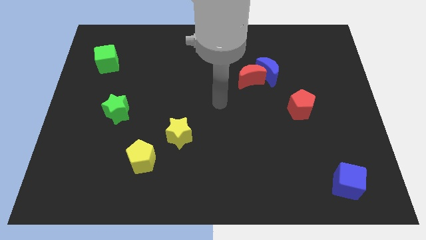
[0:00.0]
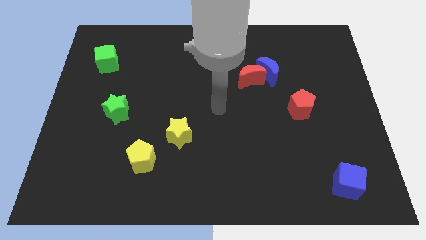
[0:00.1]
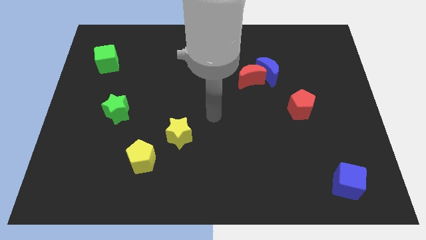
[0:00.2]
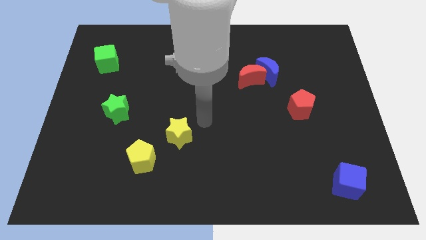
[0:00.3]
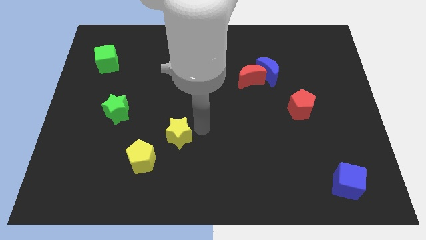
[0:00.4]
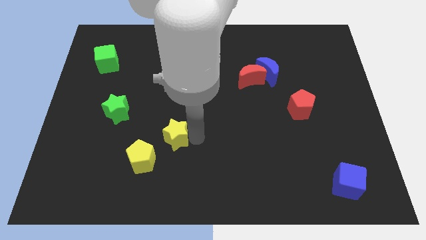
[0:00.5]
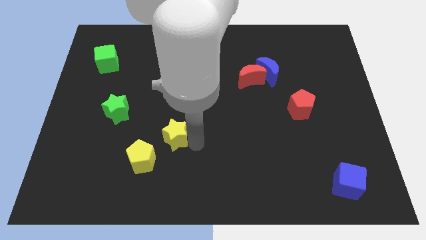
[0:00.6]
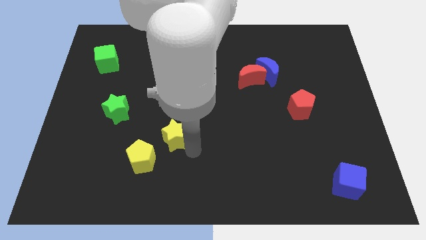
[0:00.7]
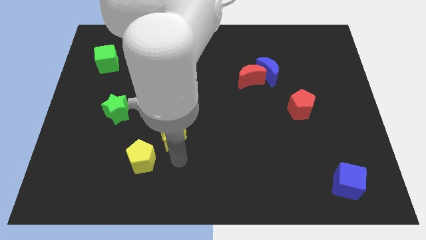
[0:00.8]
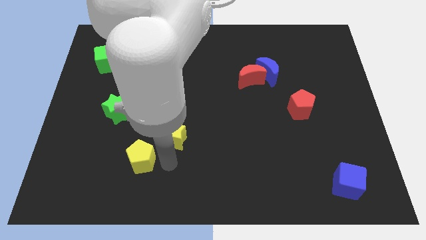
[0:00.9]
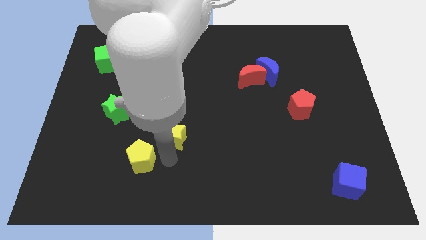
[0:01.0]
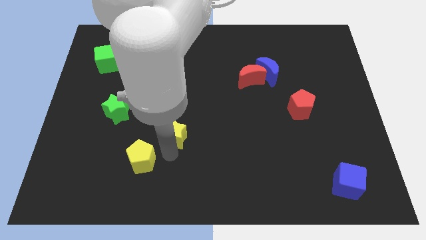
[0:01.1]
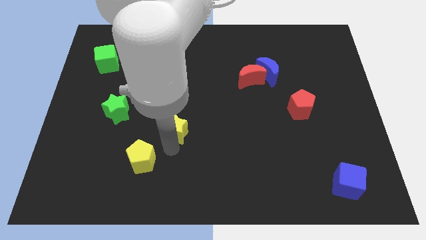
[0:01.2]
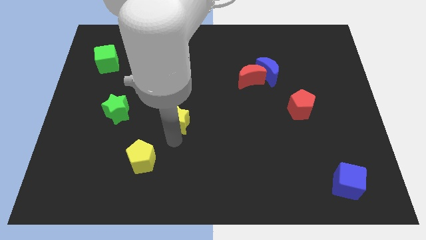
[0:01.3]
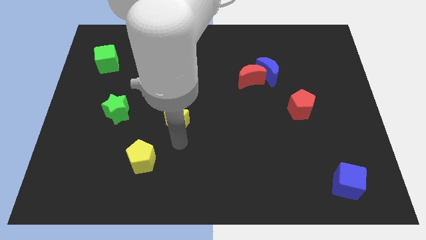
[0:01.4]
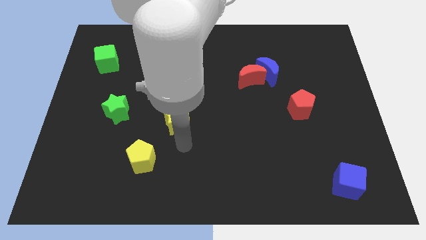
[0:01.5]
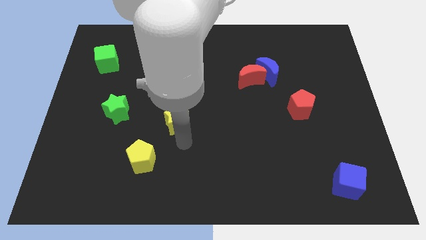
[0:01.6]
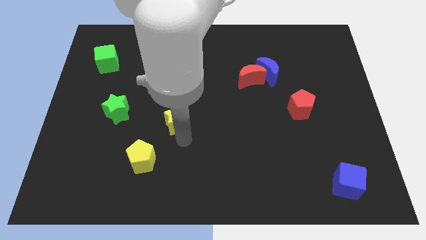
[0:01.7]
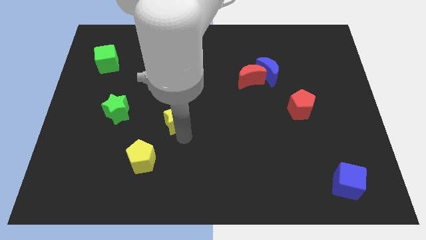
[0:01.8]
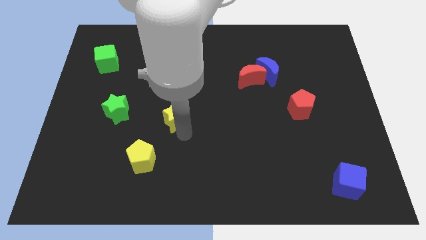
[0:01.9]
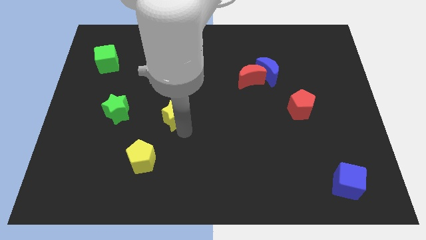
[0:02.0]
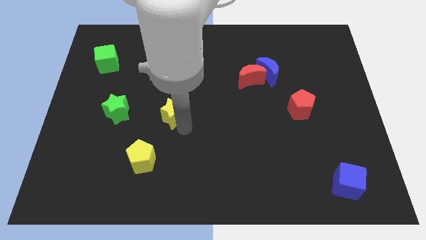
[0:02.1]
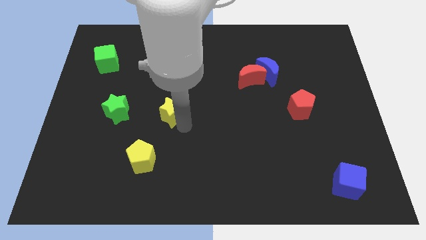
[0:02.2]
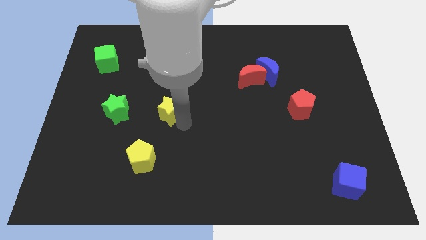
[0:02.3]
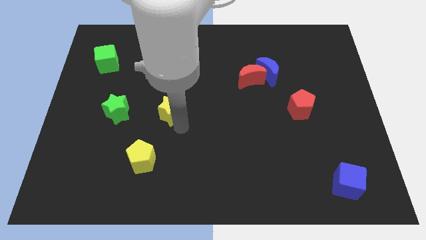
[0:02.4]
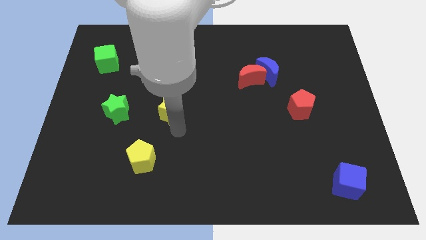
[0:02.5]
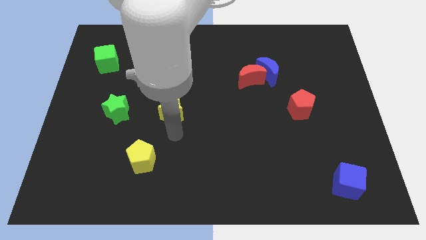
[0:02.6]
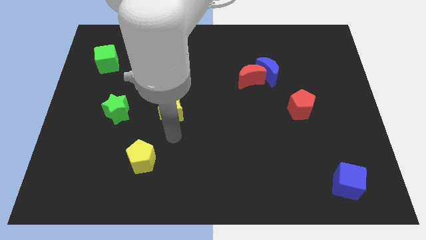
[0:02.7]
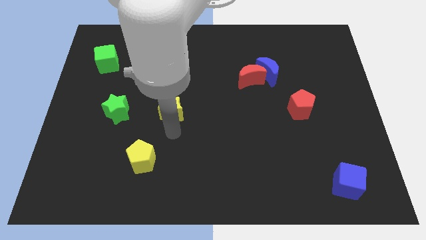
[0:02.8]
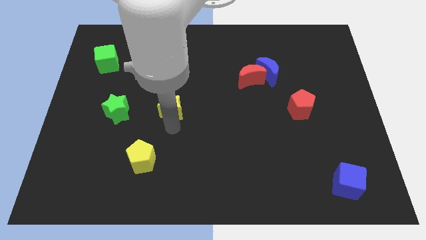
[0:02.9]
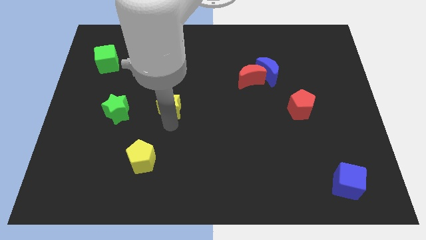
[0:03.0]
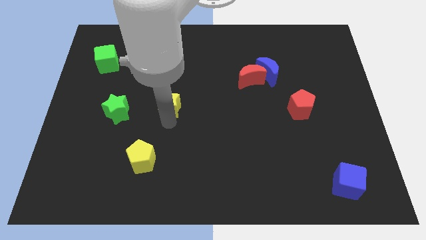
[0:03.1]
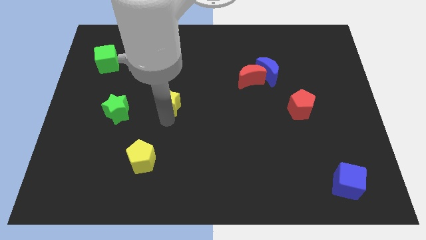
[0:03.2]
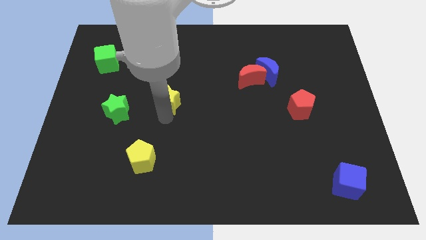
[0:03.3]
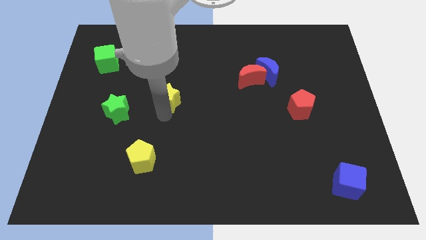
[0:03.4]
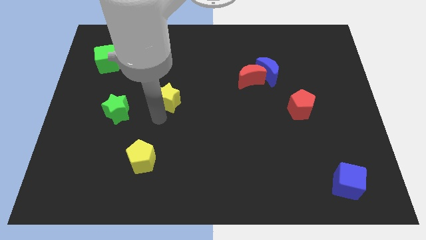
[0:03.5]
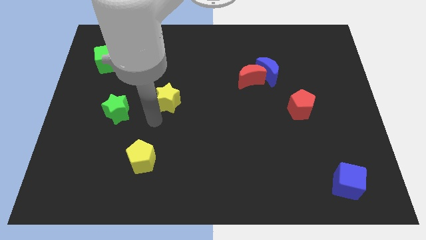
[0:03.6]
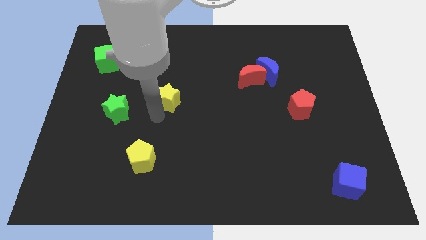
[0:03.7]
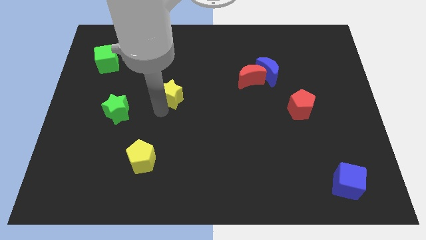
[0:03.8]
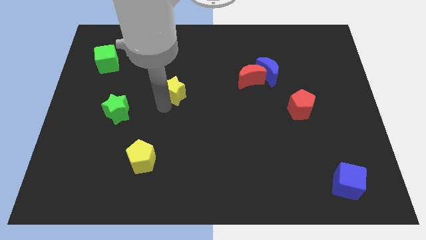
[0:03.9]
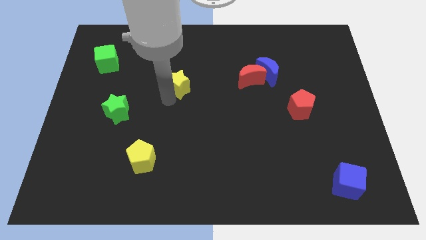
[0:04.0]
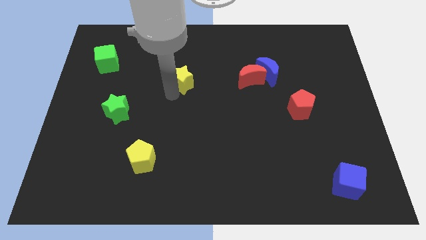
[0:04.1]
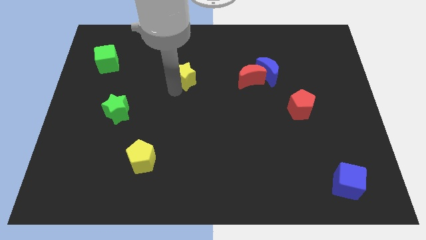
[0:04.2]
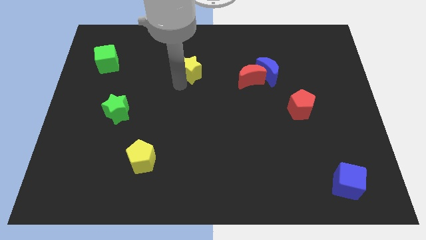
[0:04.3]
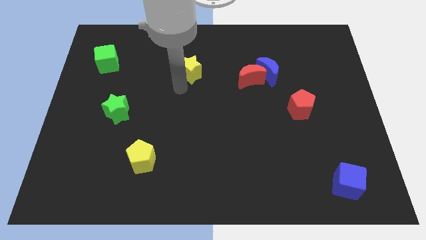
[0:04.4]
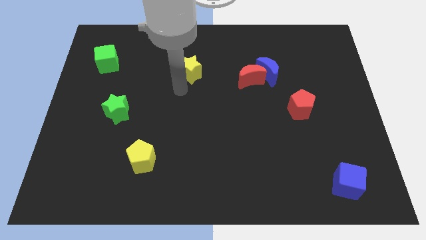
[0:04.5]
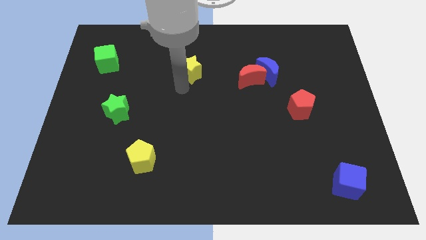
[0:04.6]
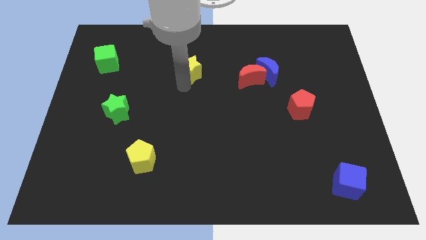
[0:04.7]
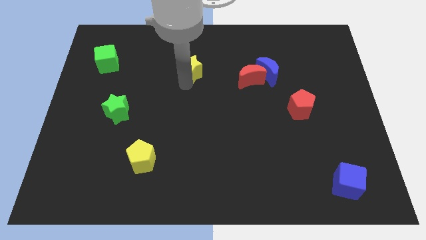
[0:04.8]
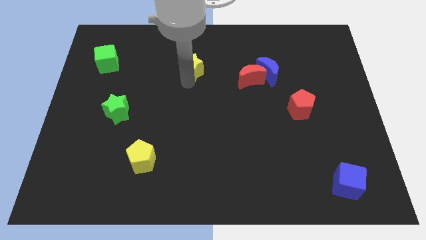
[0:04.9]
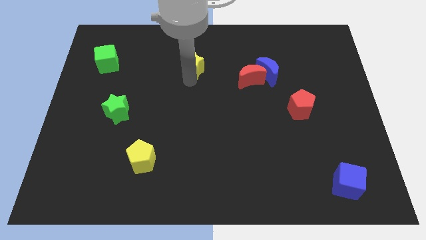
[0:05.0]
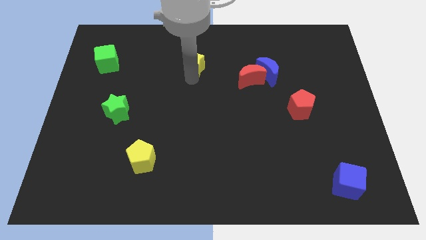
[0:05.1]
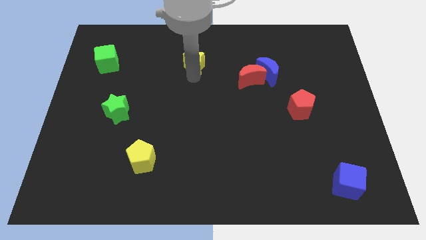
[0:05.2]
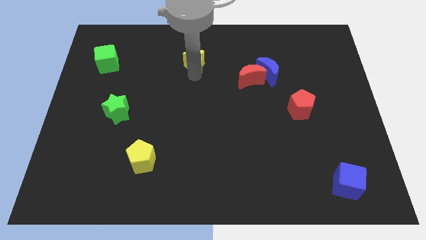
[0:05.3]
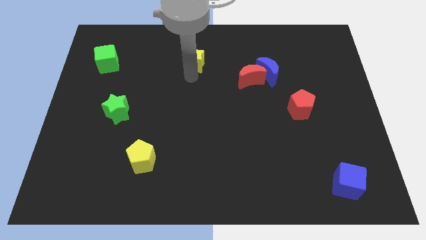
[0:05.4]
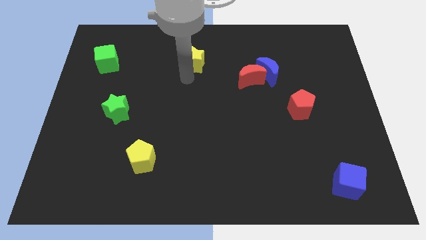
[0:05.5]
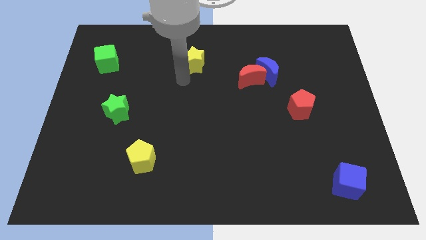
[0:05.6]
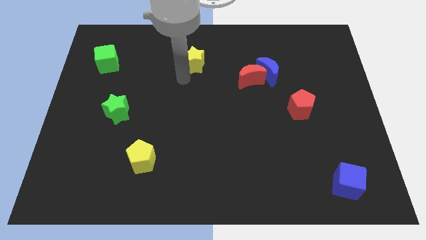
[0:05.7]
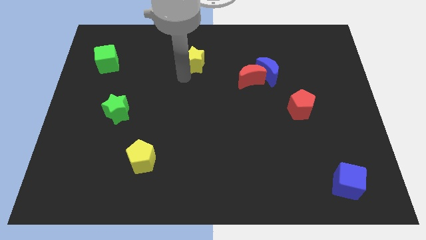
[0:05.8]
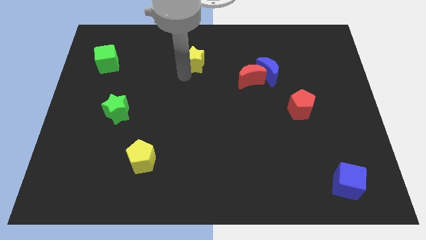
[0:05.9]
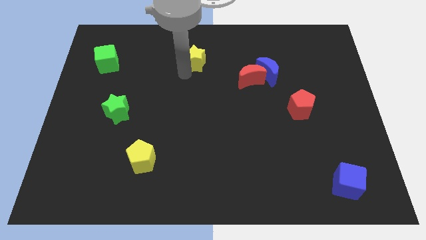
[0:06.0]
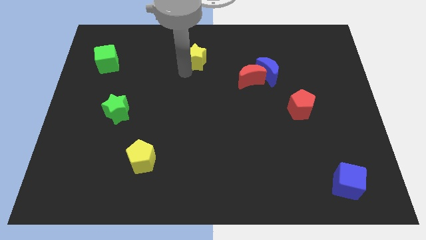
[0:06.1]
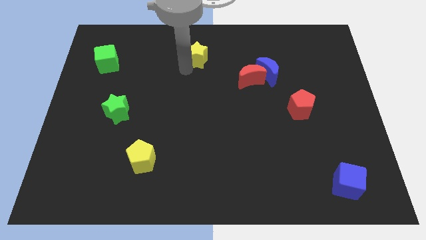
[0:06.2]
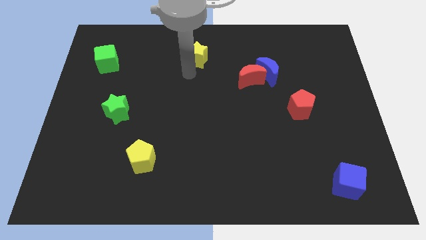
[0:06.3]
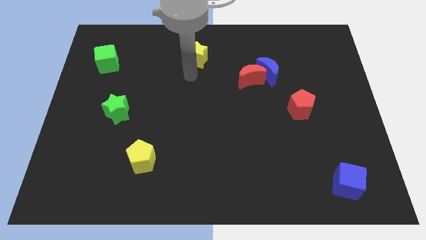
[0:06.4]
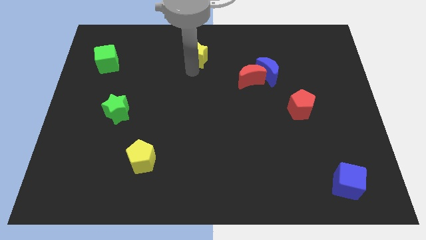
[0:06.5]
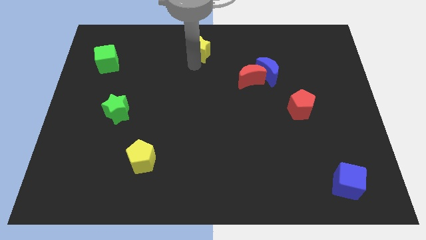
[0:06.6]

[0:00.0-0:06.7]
put the yellow star to the towards your base
